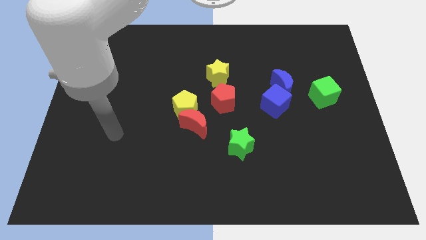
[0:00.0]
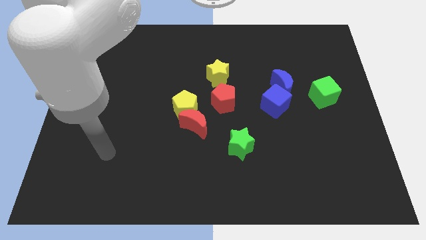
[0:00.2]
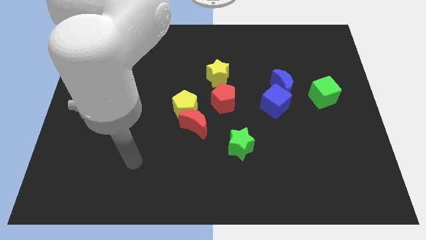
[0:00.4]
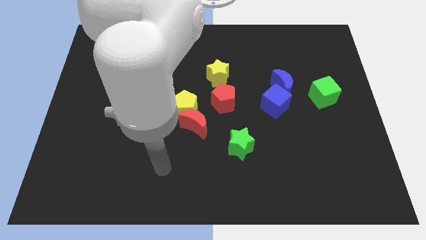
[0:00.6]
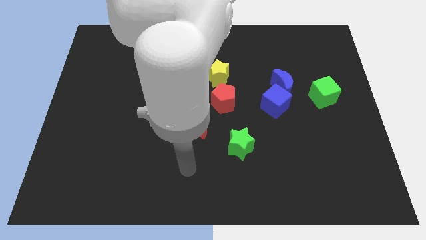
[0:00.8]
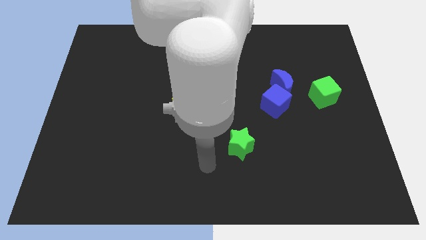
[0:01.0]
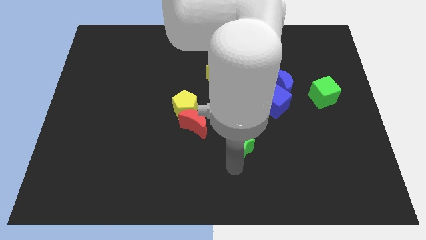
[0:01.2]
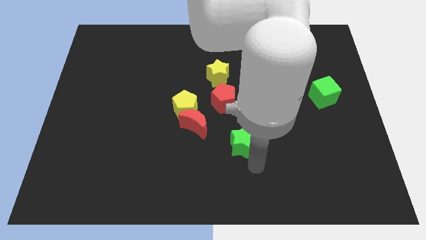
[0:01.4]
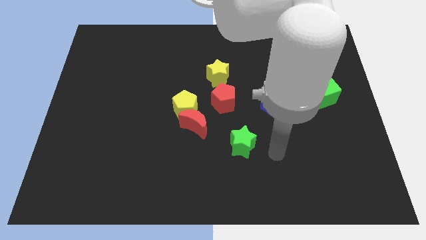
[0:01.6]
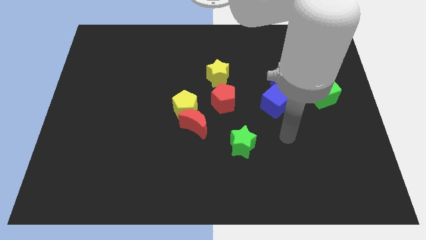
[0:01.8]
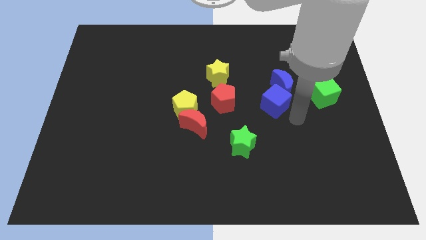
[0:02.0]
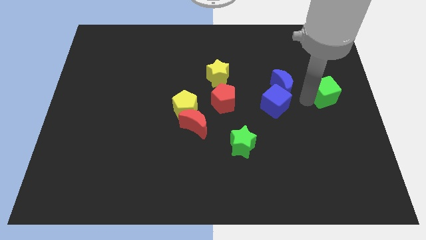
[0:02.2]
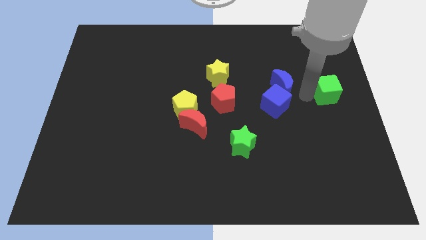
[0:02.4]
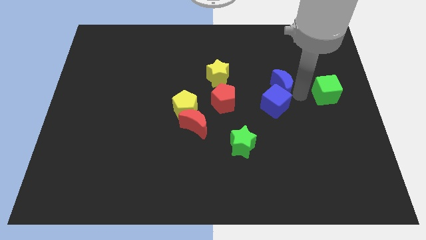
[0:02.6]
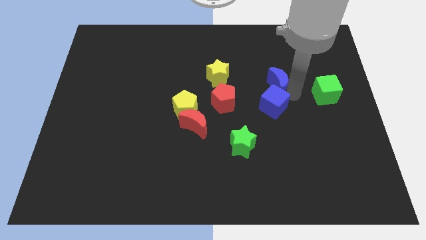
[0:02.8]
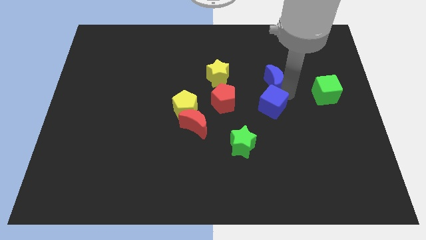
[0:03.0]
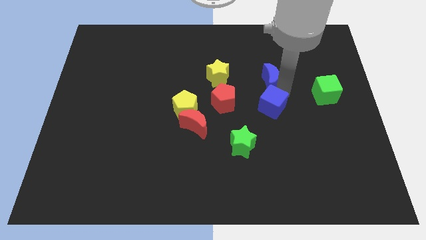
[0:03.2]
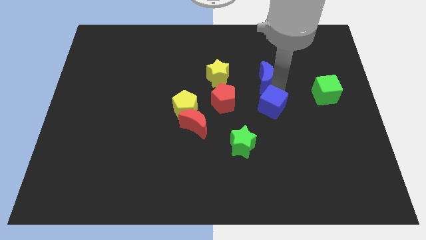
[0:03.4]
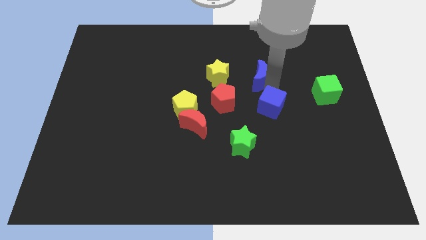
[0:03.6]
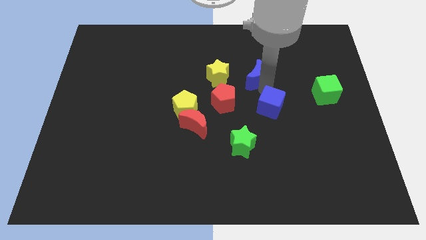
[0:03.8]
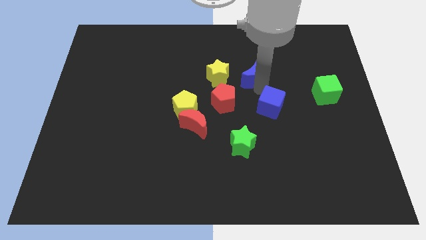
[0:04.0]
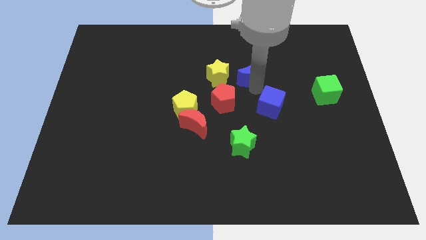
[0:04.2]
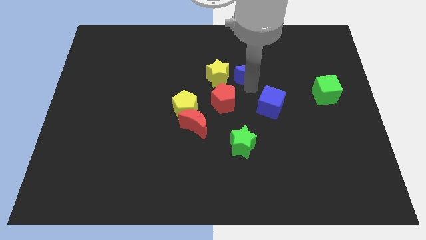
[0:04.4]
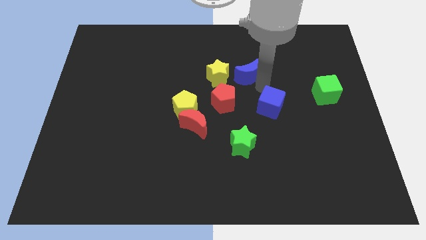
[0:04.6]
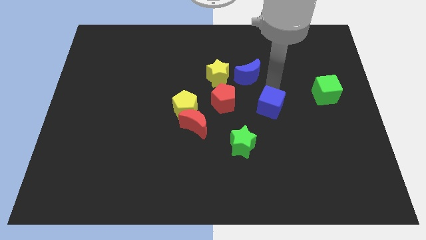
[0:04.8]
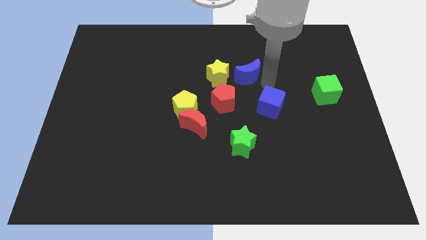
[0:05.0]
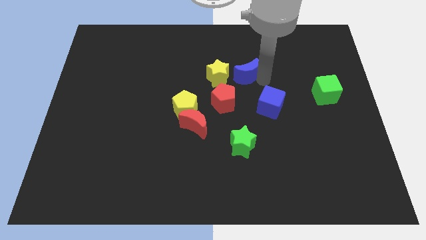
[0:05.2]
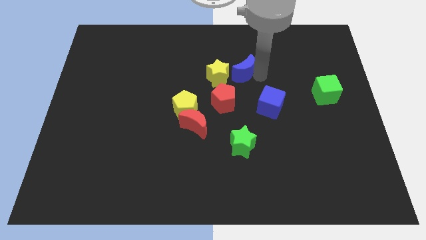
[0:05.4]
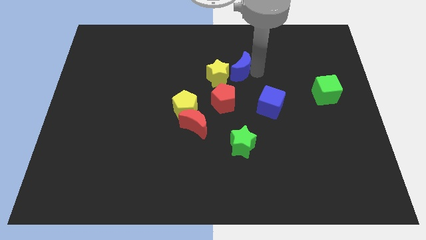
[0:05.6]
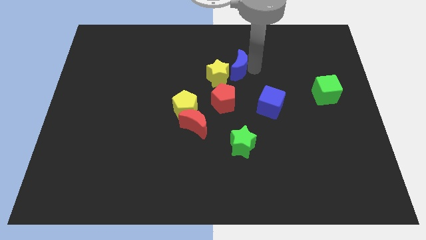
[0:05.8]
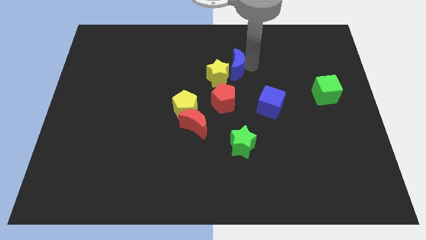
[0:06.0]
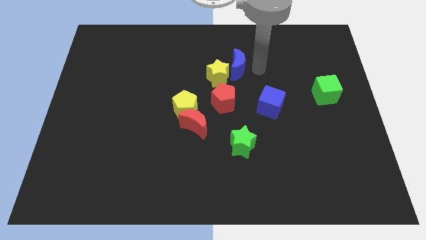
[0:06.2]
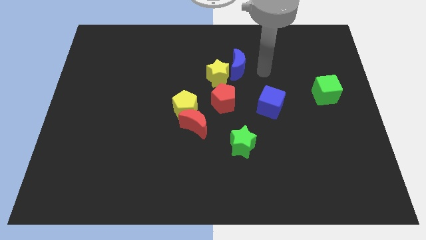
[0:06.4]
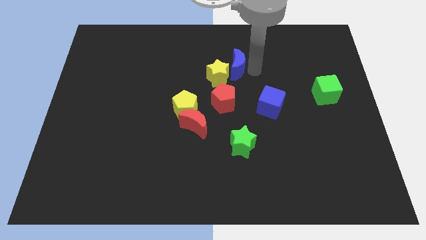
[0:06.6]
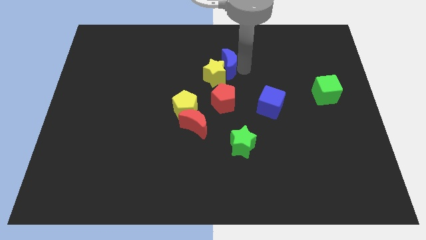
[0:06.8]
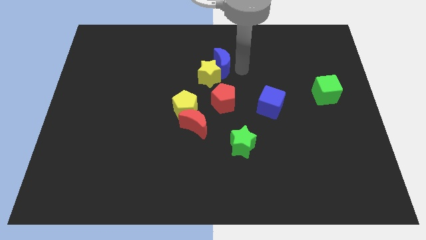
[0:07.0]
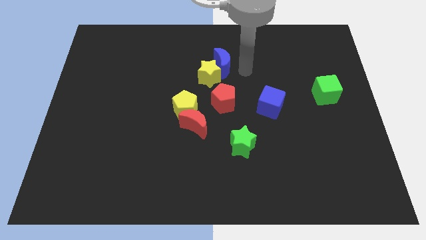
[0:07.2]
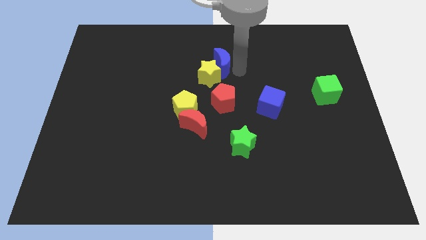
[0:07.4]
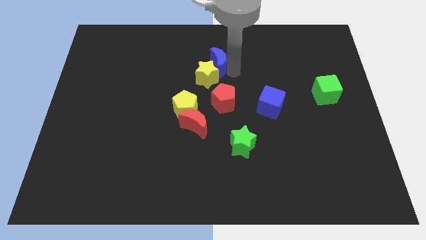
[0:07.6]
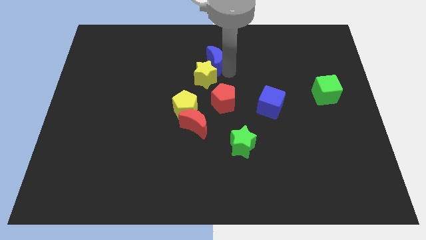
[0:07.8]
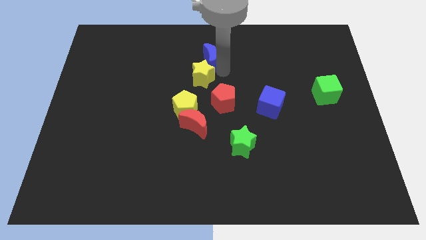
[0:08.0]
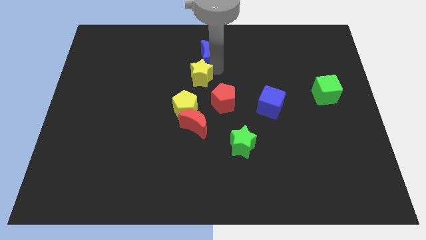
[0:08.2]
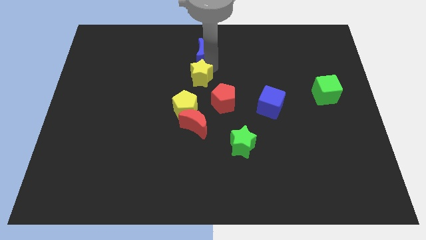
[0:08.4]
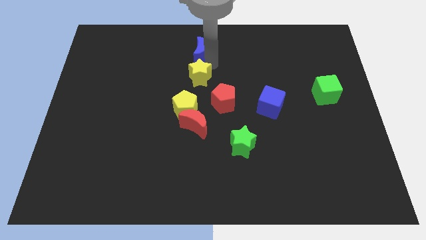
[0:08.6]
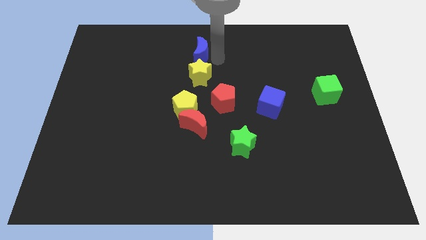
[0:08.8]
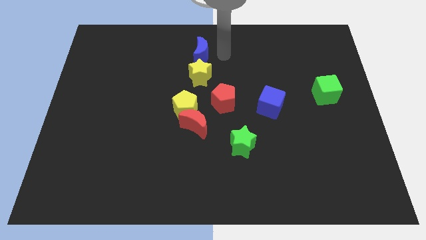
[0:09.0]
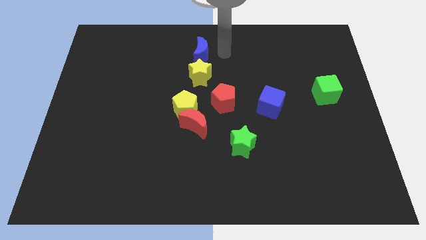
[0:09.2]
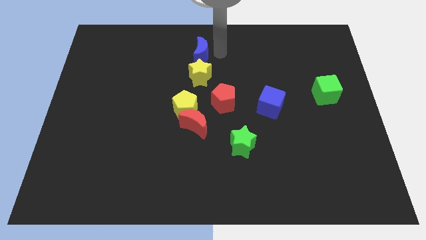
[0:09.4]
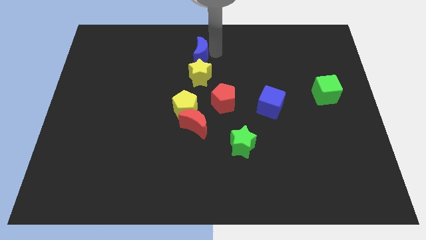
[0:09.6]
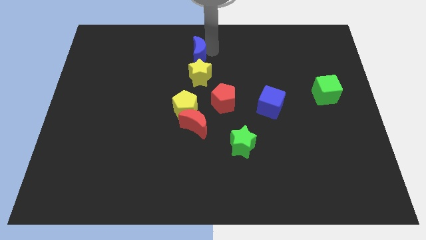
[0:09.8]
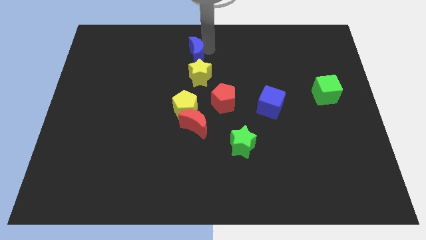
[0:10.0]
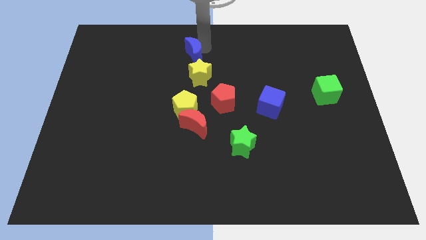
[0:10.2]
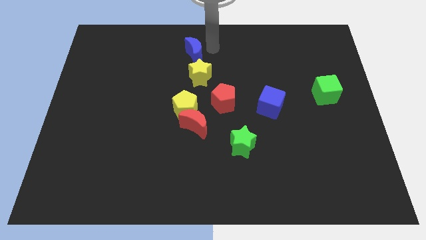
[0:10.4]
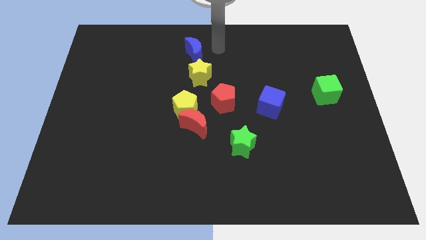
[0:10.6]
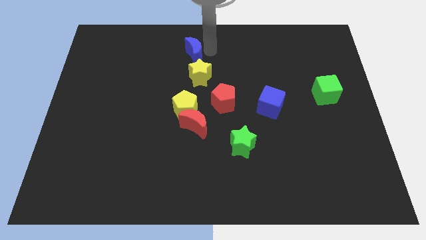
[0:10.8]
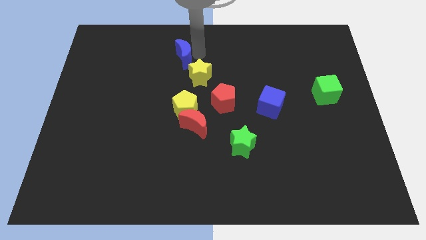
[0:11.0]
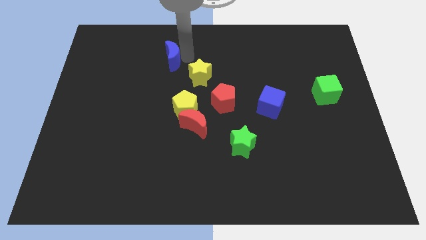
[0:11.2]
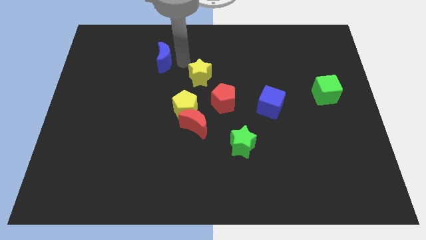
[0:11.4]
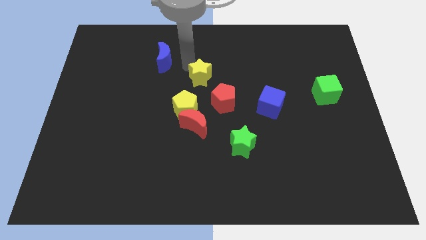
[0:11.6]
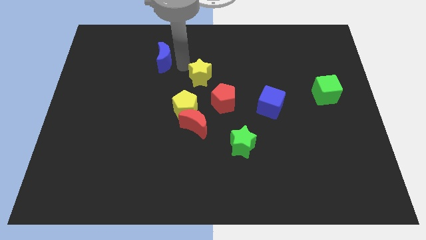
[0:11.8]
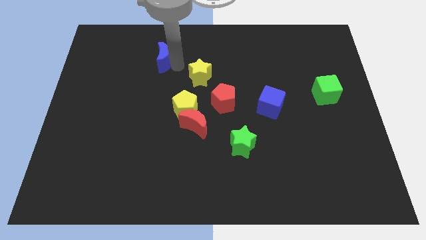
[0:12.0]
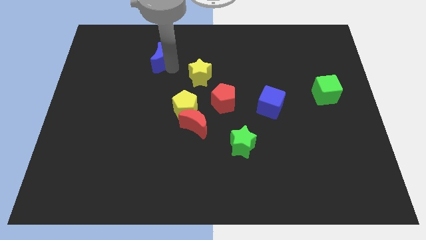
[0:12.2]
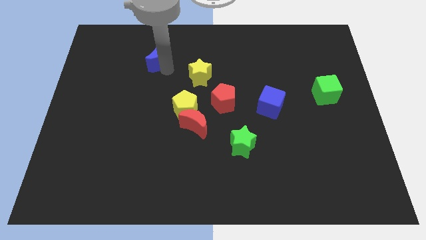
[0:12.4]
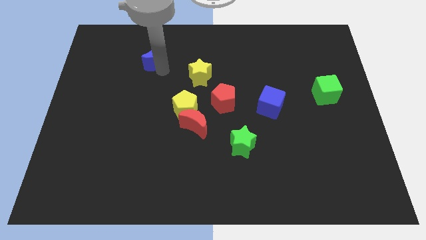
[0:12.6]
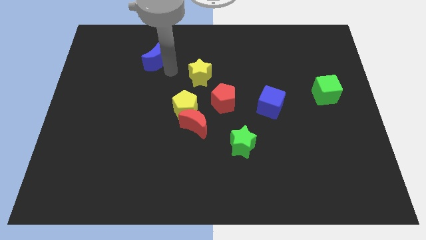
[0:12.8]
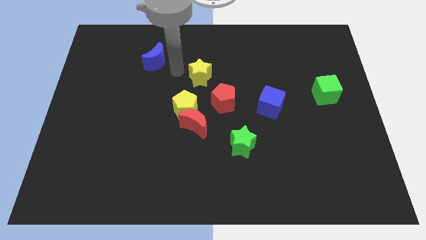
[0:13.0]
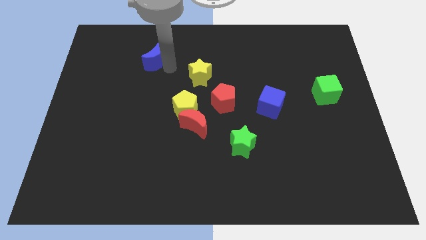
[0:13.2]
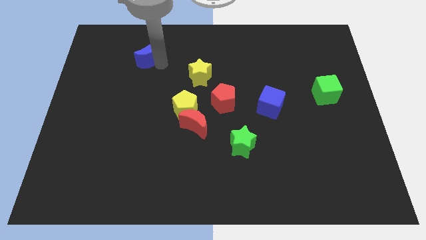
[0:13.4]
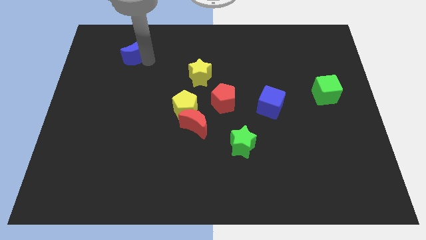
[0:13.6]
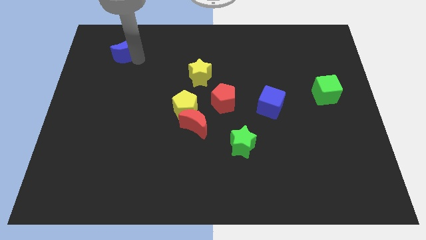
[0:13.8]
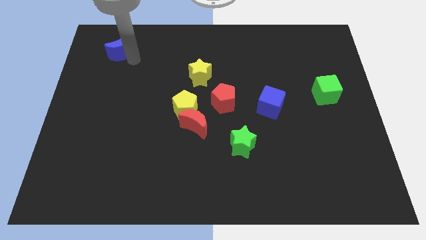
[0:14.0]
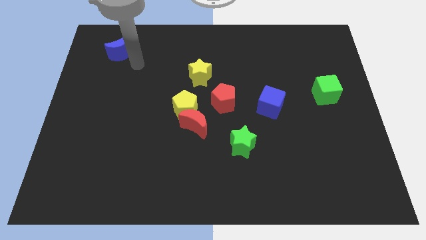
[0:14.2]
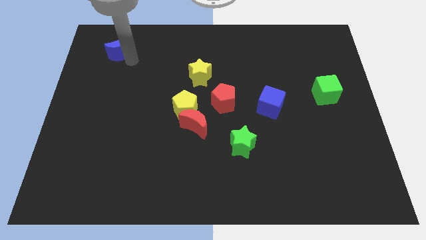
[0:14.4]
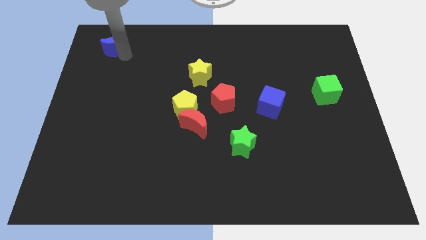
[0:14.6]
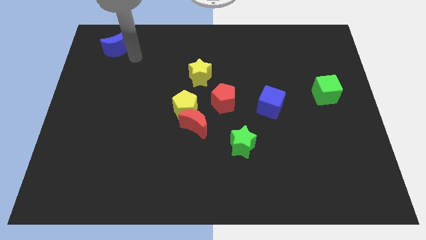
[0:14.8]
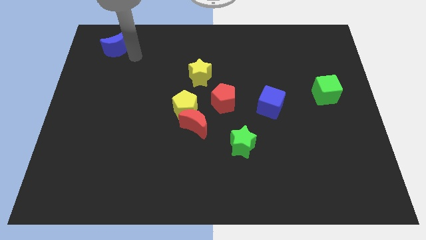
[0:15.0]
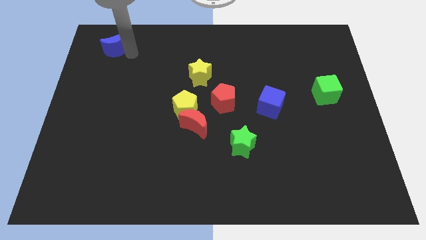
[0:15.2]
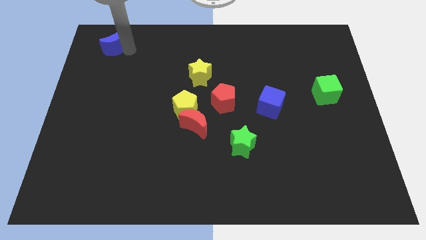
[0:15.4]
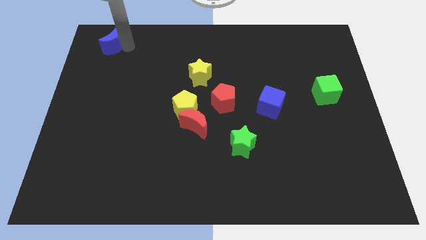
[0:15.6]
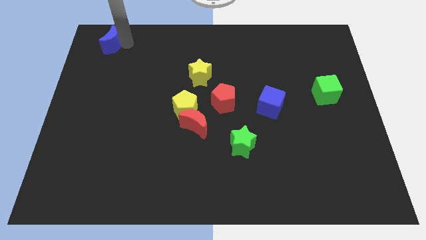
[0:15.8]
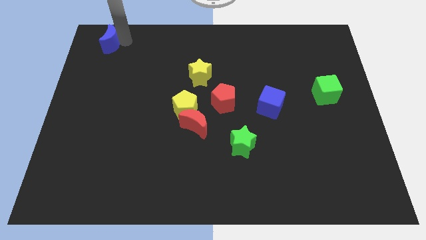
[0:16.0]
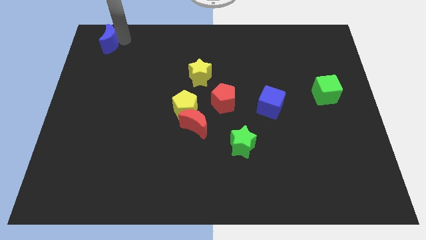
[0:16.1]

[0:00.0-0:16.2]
push the blue moon to the top left corner
